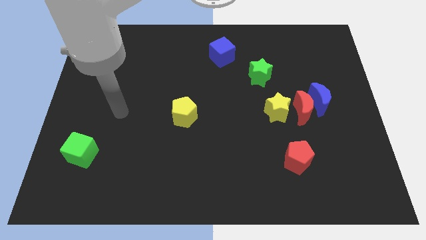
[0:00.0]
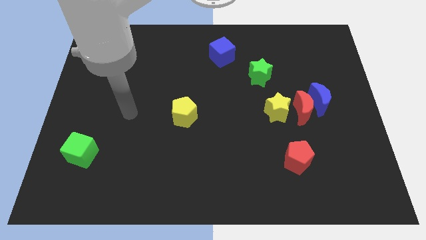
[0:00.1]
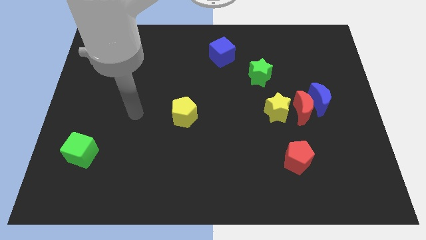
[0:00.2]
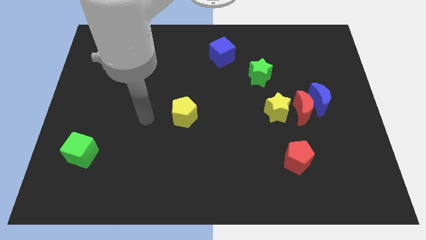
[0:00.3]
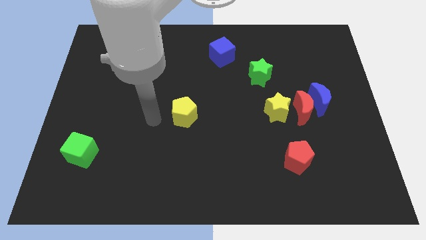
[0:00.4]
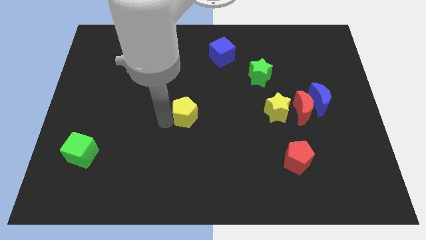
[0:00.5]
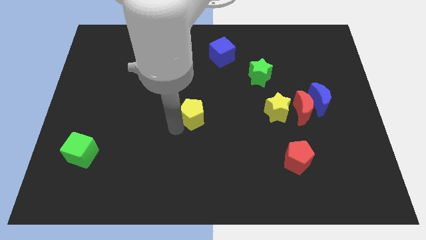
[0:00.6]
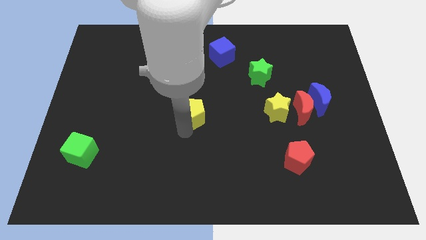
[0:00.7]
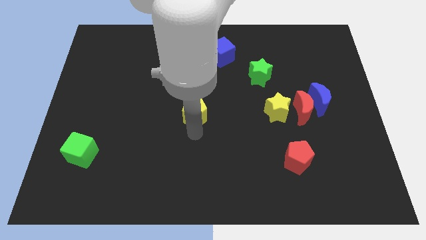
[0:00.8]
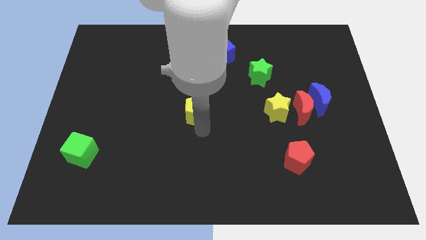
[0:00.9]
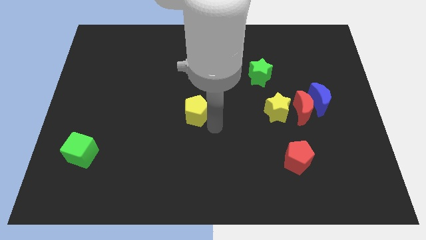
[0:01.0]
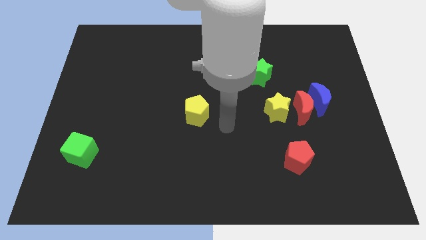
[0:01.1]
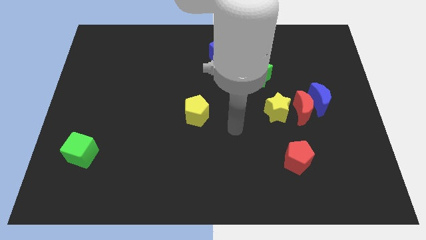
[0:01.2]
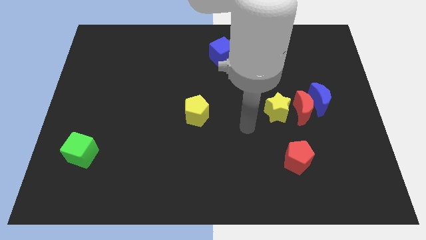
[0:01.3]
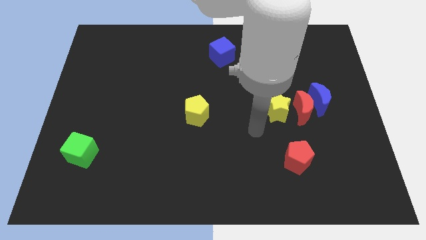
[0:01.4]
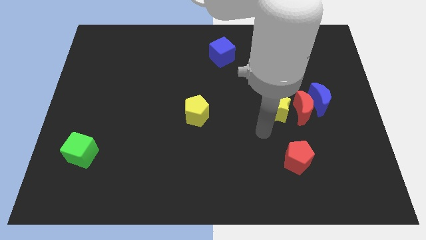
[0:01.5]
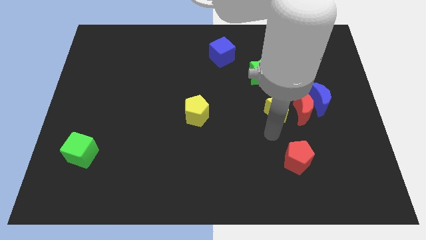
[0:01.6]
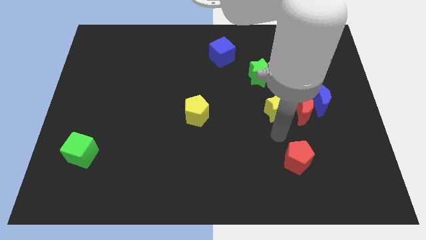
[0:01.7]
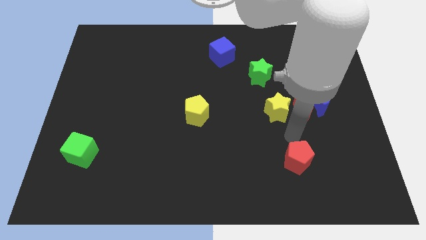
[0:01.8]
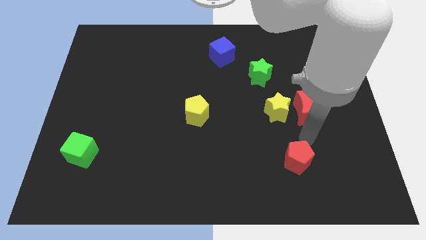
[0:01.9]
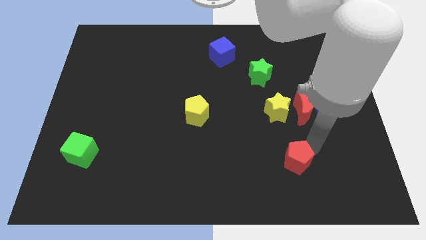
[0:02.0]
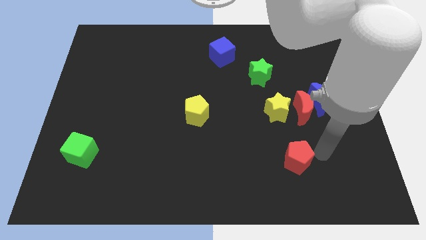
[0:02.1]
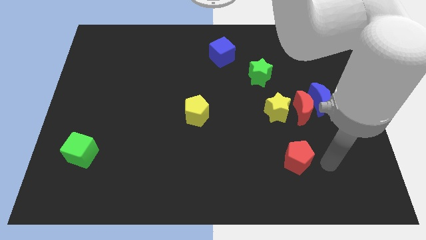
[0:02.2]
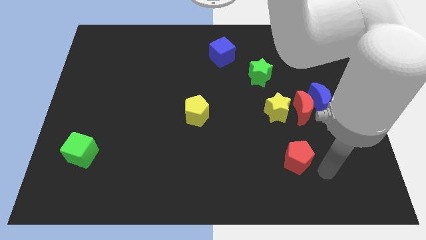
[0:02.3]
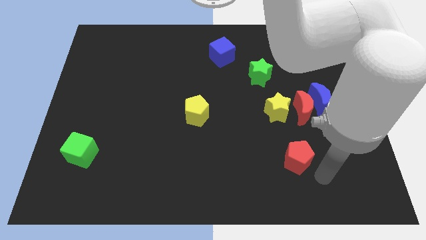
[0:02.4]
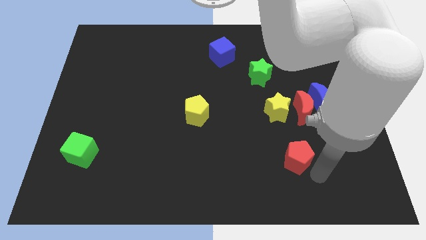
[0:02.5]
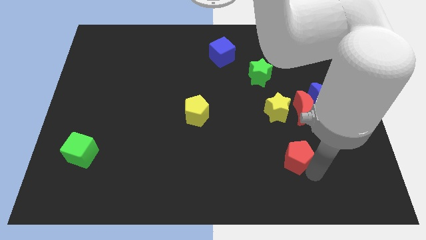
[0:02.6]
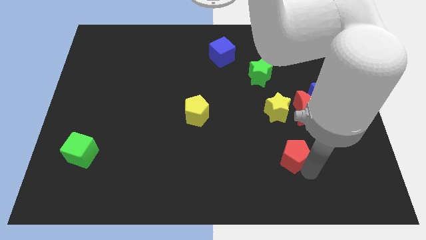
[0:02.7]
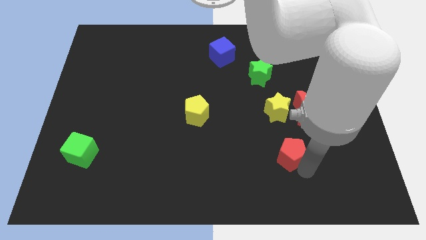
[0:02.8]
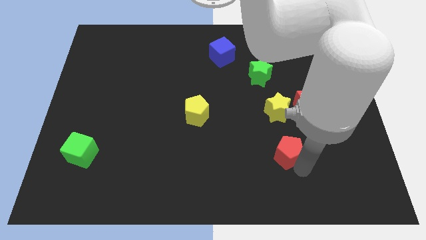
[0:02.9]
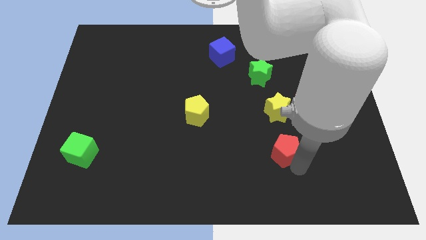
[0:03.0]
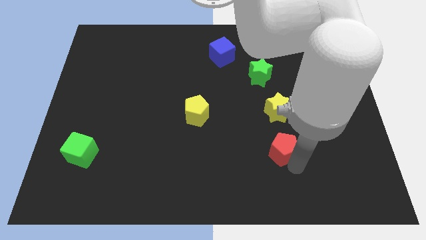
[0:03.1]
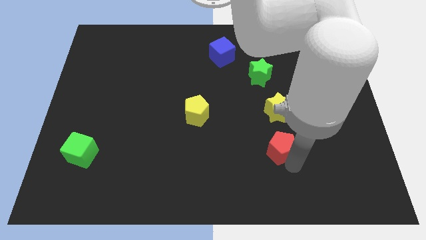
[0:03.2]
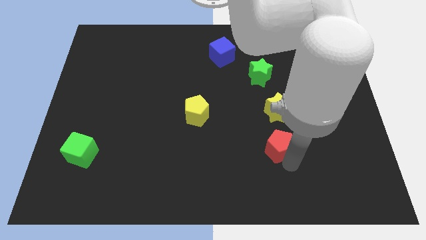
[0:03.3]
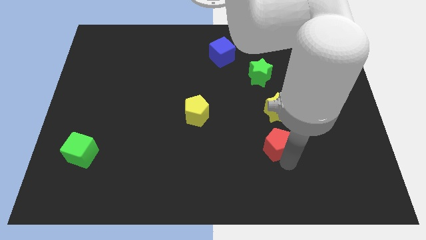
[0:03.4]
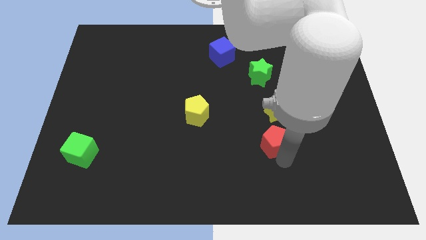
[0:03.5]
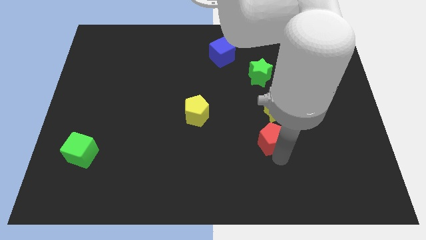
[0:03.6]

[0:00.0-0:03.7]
slide the red pentagon diagonally upwards and left slightly

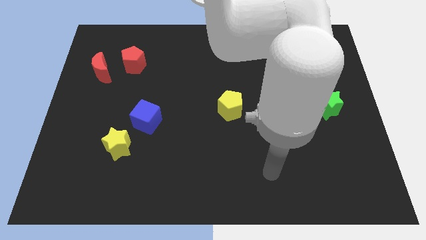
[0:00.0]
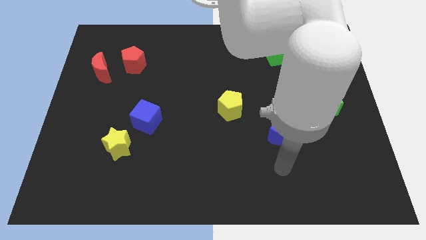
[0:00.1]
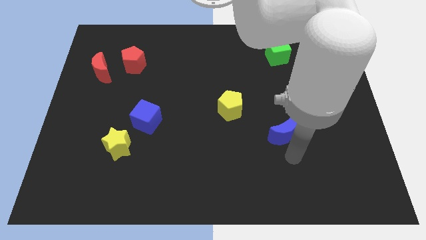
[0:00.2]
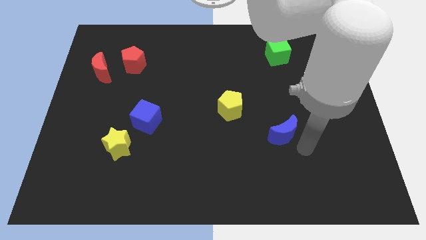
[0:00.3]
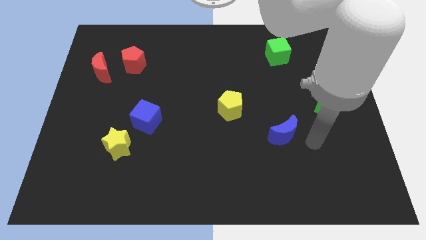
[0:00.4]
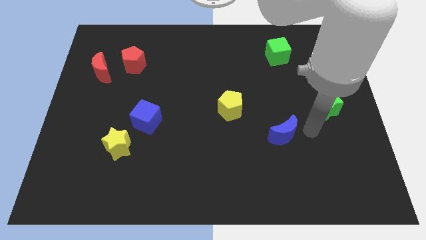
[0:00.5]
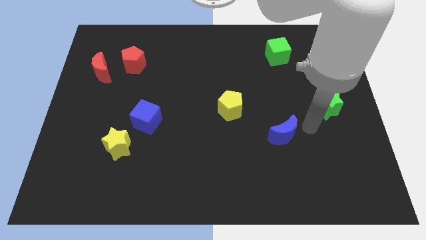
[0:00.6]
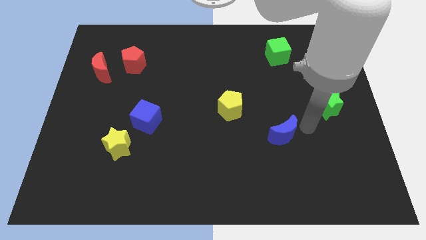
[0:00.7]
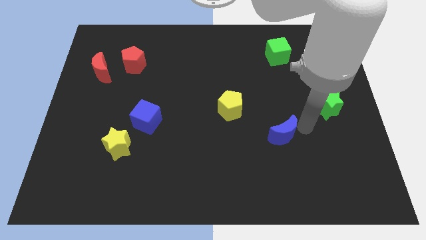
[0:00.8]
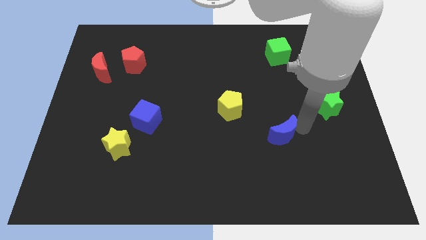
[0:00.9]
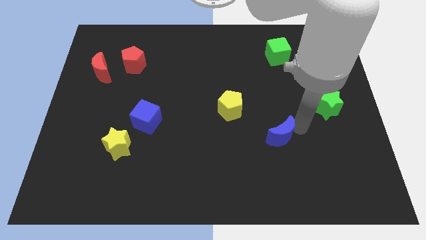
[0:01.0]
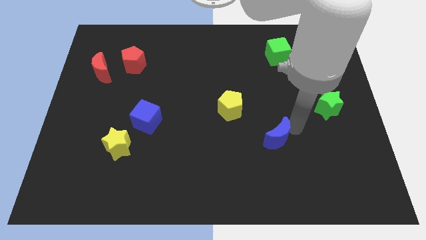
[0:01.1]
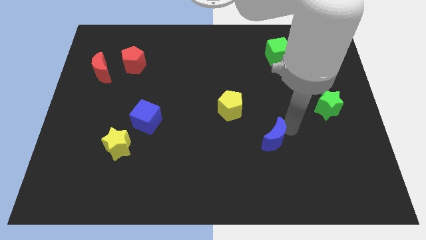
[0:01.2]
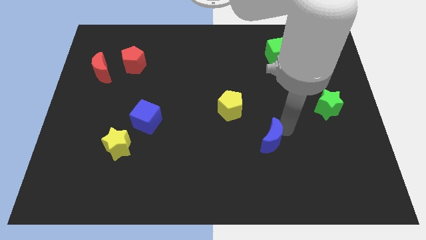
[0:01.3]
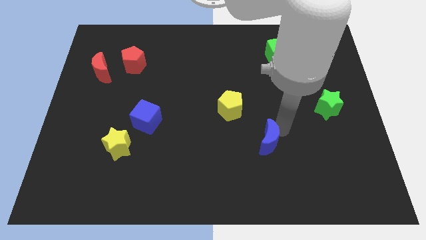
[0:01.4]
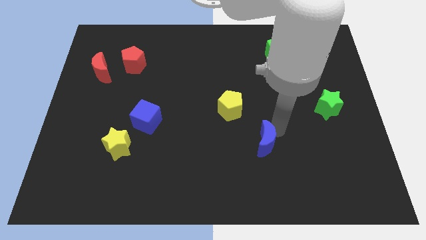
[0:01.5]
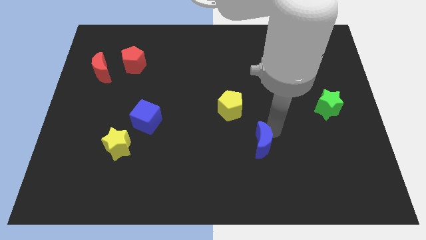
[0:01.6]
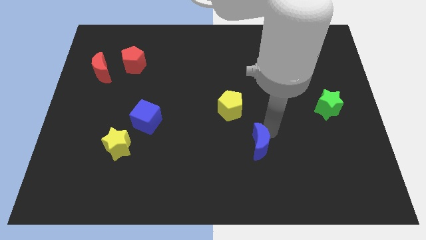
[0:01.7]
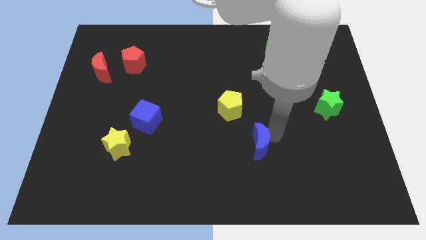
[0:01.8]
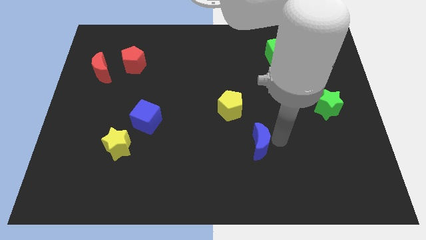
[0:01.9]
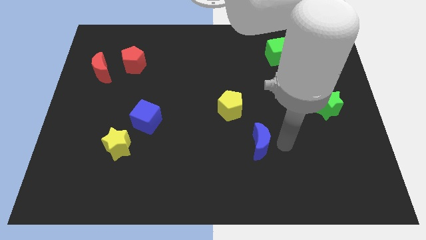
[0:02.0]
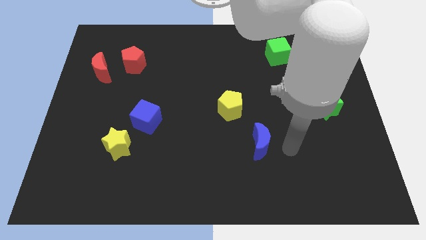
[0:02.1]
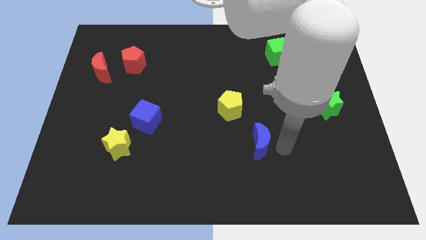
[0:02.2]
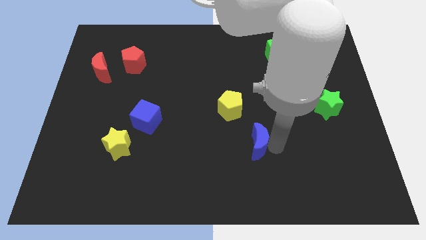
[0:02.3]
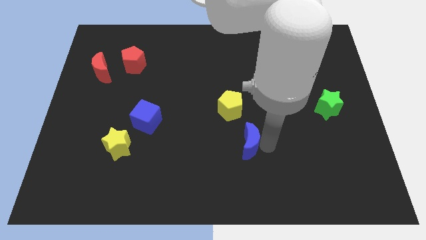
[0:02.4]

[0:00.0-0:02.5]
slightly slide the blue moon to the left

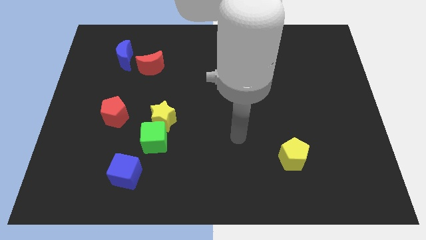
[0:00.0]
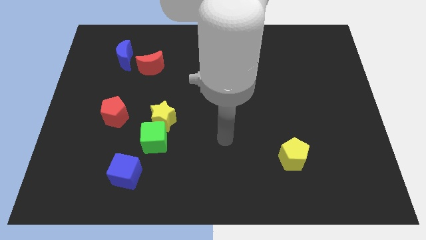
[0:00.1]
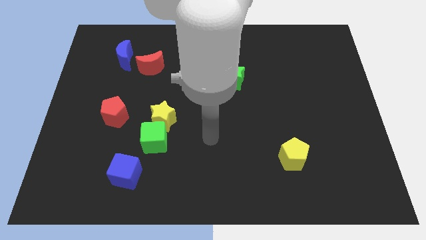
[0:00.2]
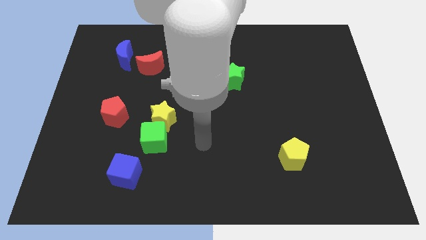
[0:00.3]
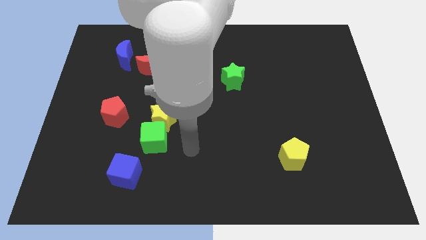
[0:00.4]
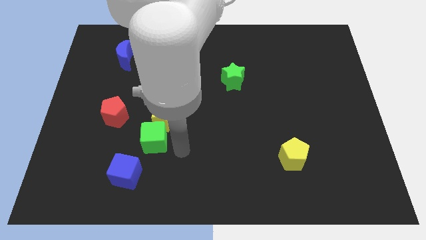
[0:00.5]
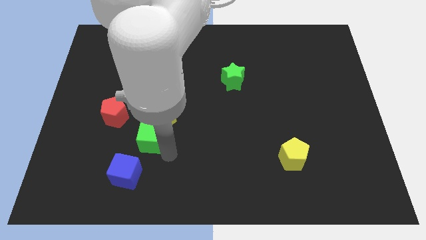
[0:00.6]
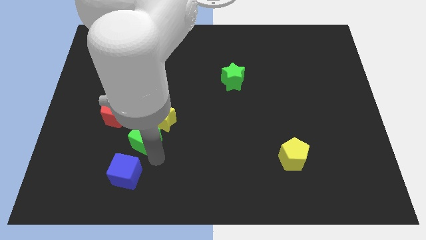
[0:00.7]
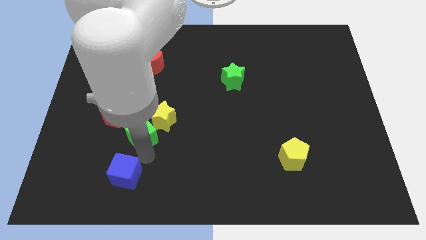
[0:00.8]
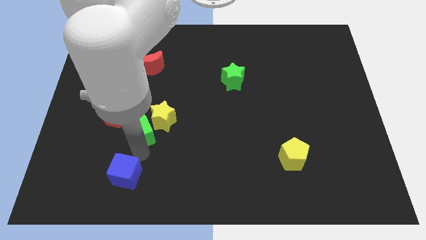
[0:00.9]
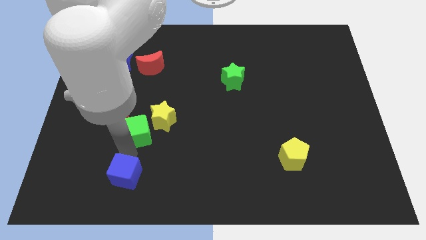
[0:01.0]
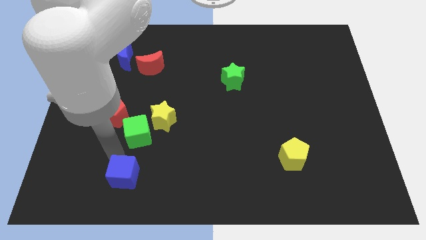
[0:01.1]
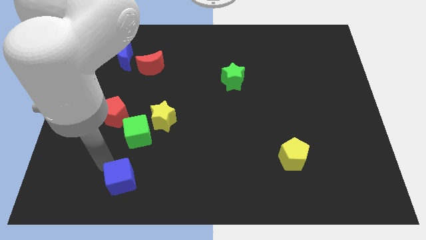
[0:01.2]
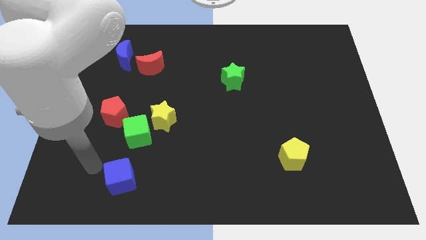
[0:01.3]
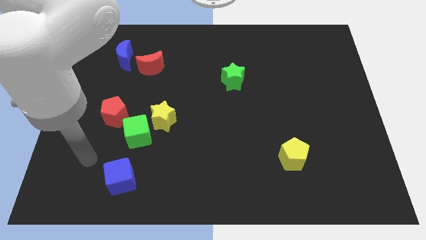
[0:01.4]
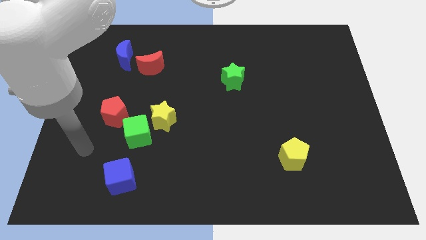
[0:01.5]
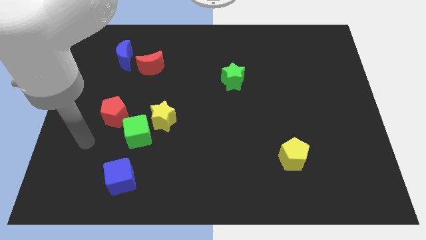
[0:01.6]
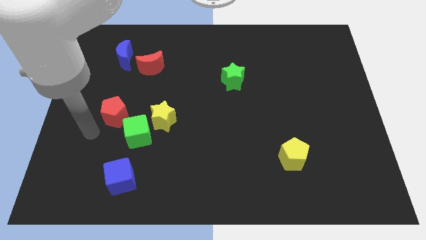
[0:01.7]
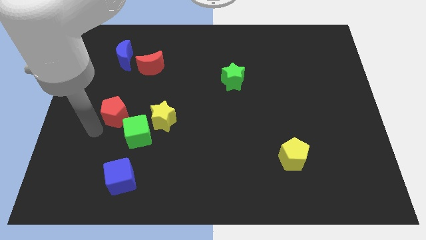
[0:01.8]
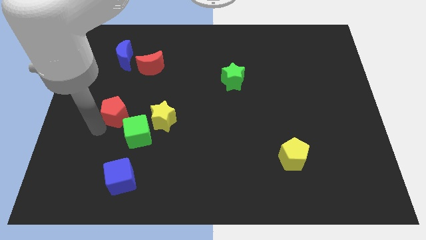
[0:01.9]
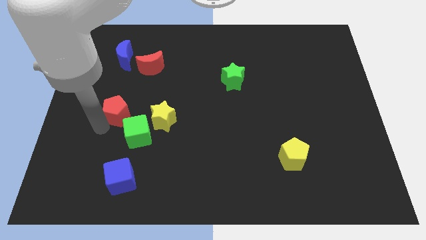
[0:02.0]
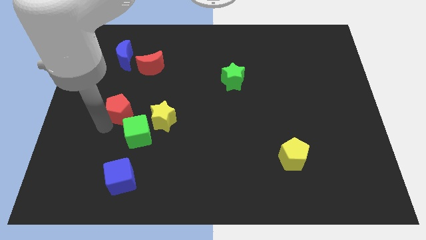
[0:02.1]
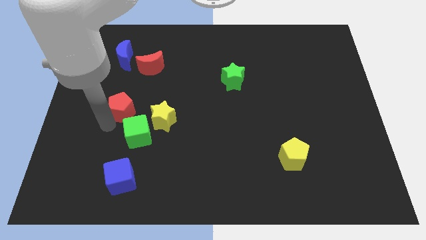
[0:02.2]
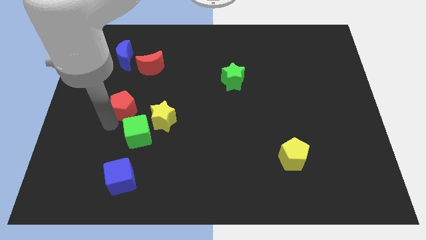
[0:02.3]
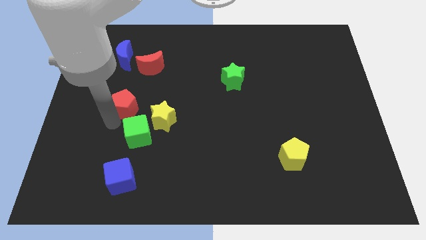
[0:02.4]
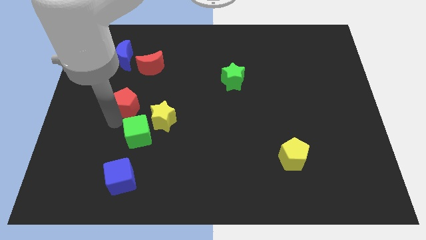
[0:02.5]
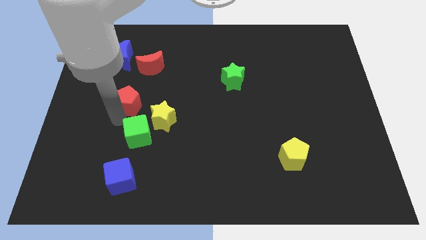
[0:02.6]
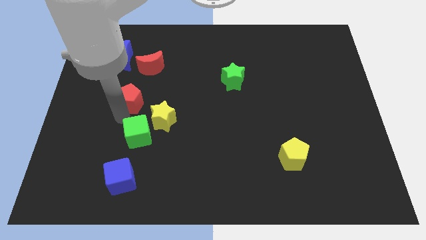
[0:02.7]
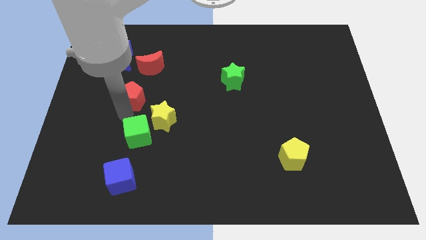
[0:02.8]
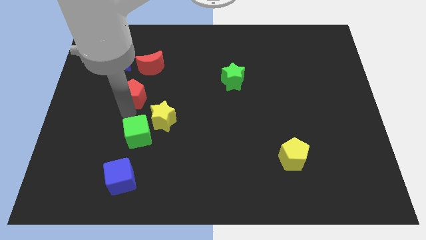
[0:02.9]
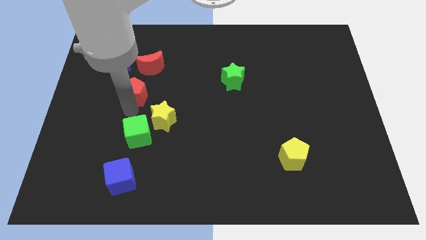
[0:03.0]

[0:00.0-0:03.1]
push the red pentagon slightly up and right
